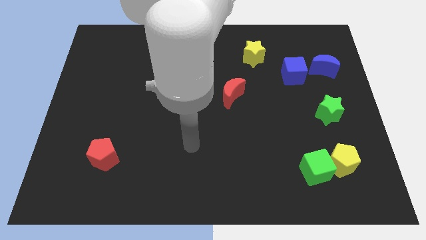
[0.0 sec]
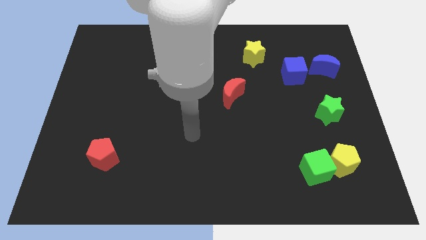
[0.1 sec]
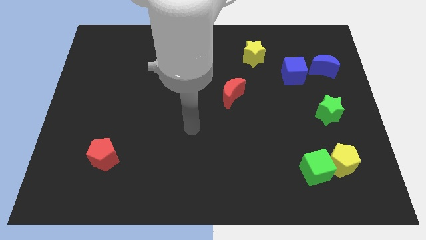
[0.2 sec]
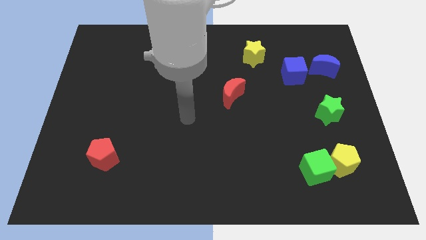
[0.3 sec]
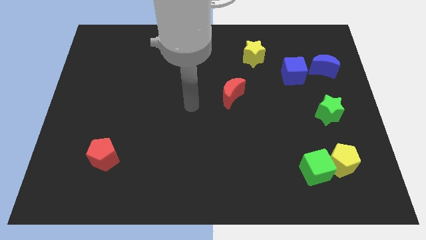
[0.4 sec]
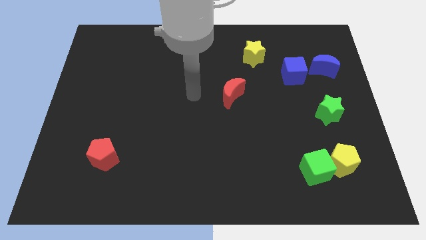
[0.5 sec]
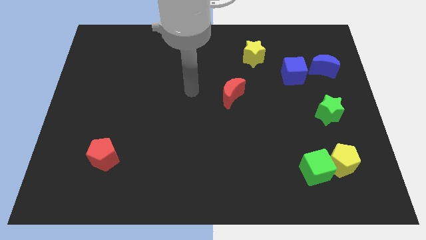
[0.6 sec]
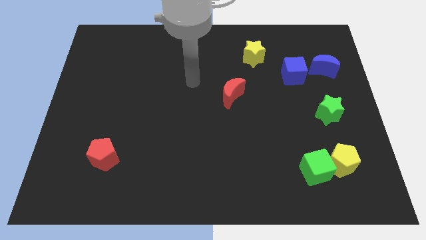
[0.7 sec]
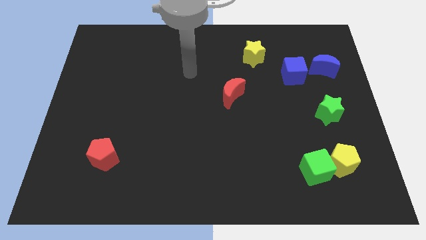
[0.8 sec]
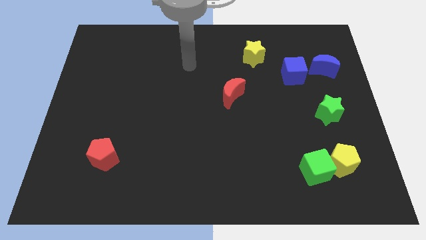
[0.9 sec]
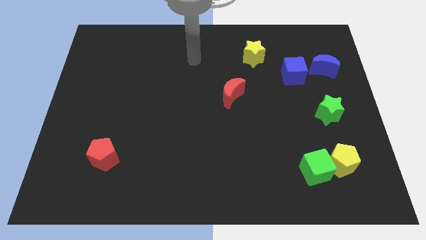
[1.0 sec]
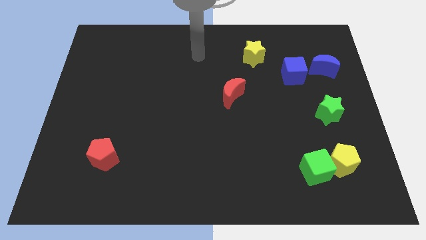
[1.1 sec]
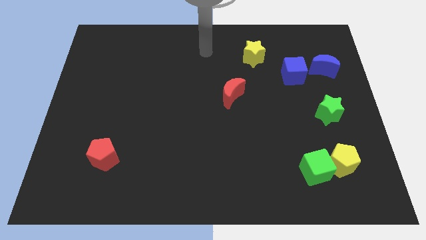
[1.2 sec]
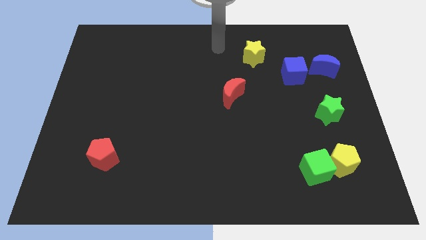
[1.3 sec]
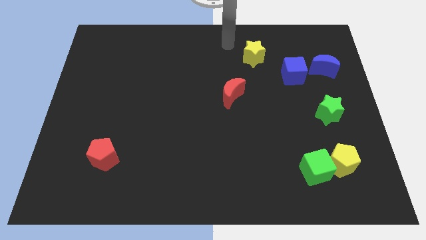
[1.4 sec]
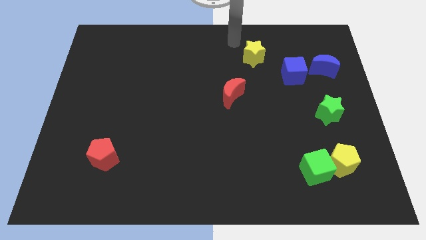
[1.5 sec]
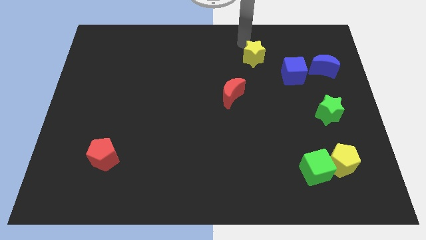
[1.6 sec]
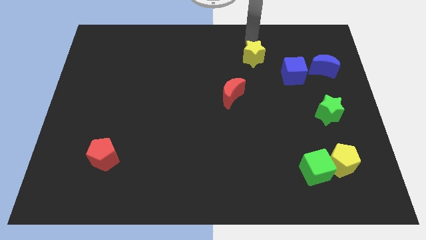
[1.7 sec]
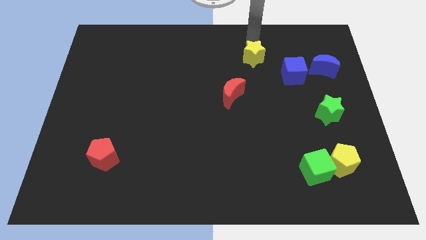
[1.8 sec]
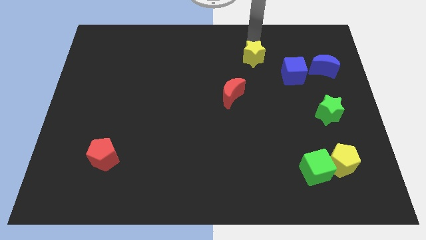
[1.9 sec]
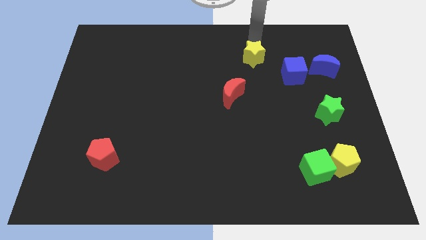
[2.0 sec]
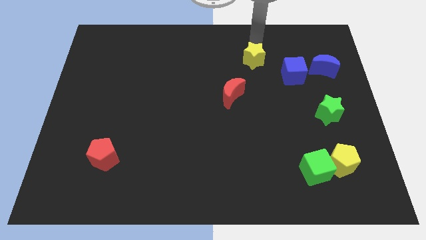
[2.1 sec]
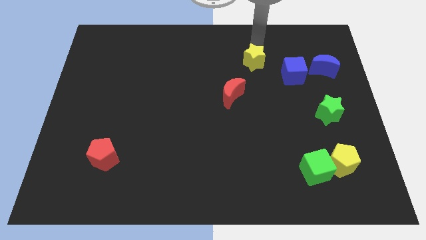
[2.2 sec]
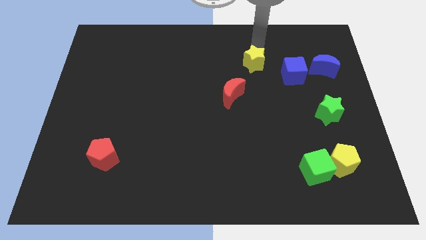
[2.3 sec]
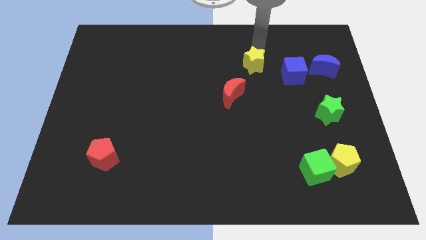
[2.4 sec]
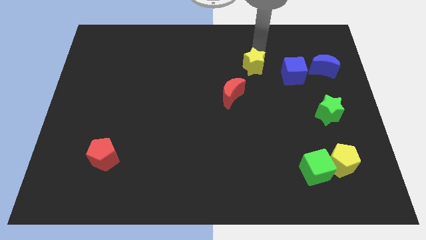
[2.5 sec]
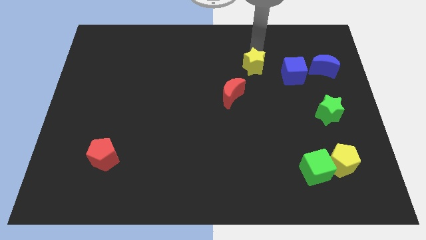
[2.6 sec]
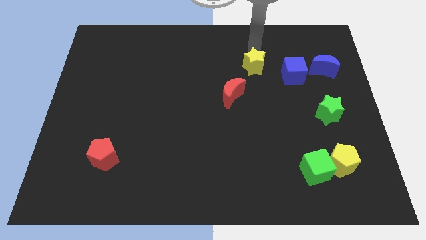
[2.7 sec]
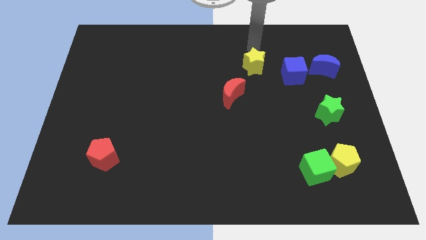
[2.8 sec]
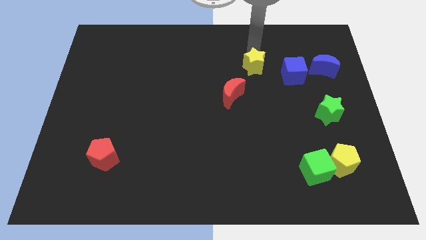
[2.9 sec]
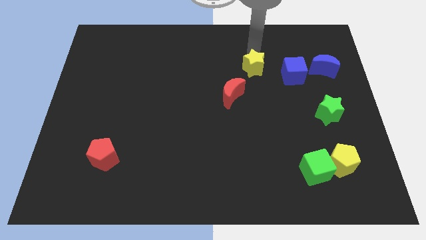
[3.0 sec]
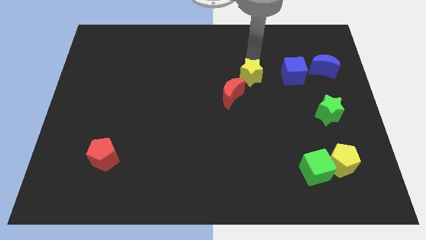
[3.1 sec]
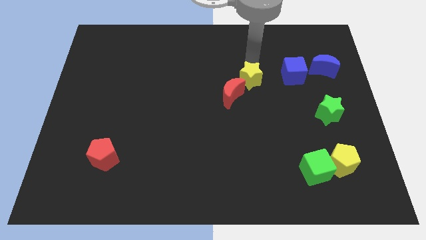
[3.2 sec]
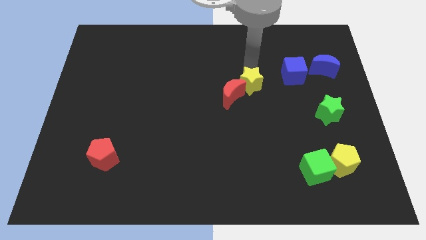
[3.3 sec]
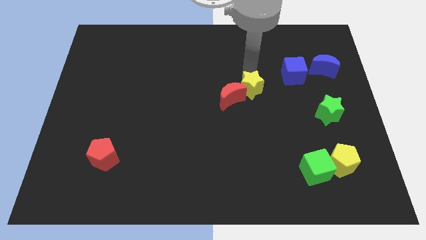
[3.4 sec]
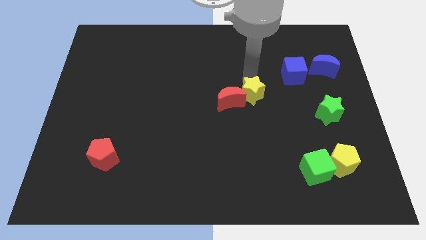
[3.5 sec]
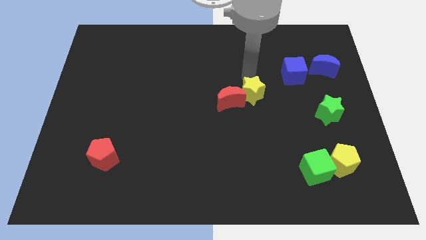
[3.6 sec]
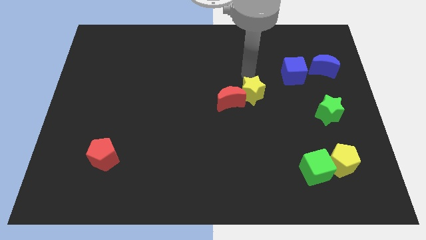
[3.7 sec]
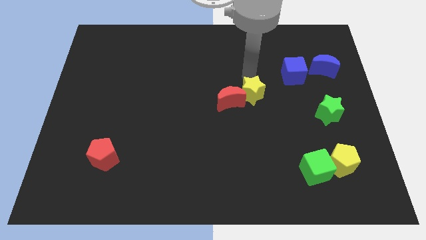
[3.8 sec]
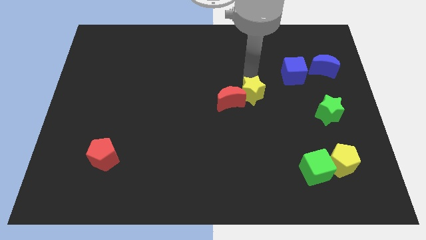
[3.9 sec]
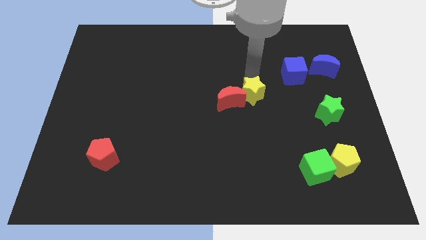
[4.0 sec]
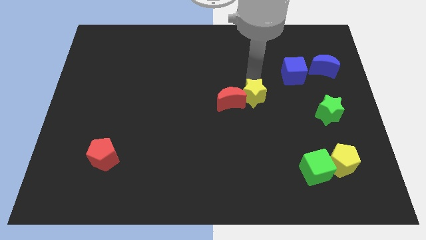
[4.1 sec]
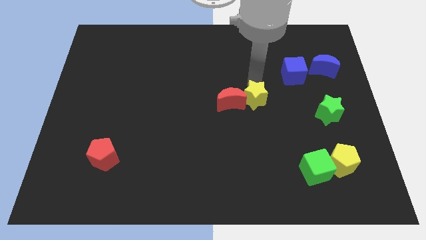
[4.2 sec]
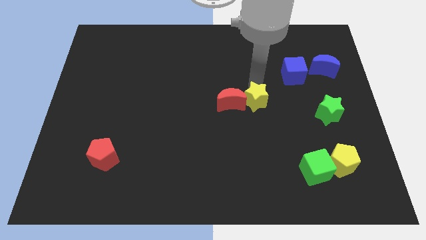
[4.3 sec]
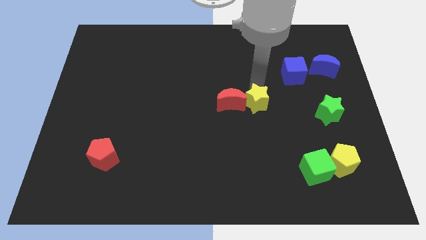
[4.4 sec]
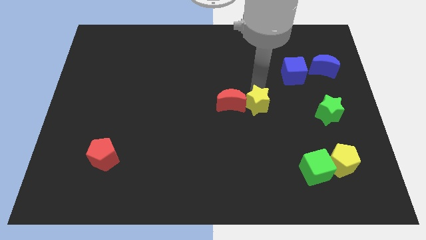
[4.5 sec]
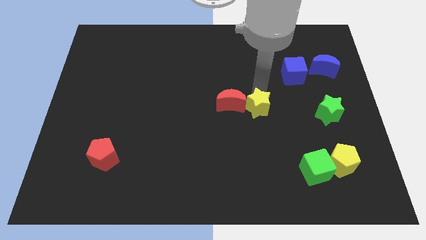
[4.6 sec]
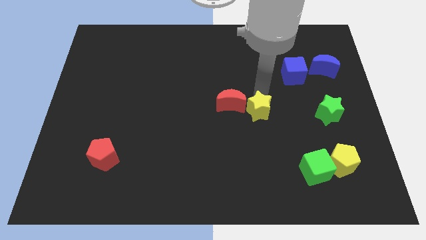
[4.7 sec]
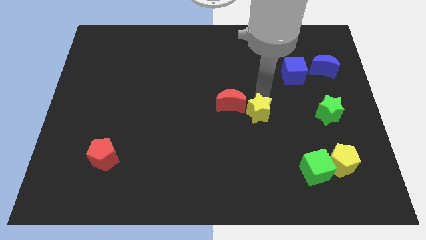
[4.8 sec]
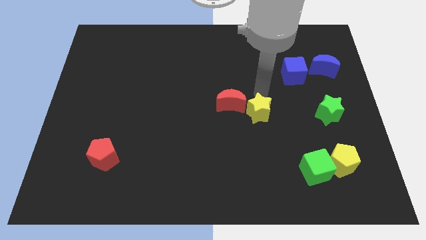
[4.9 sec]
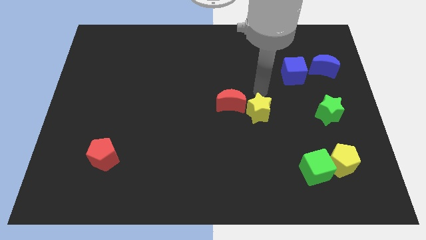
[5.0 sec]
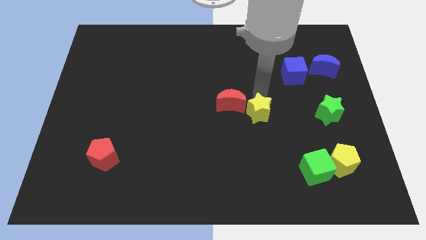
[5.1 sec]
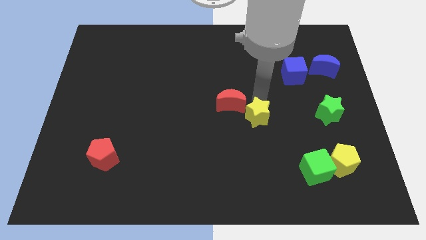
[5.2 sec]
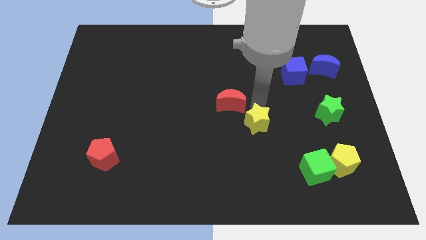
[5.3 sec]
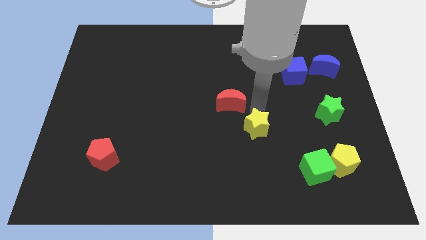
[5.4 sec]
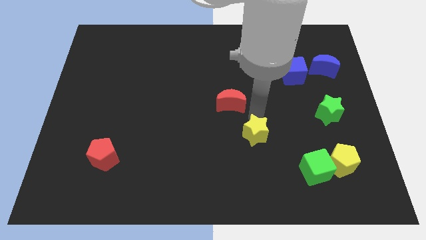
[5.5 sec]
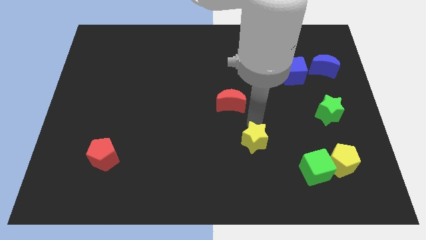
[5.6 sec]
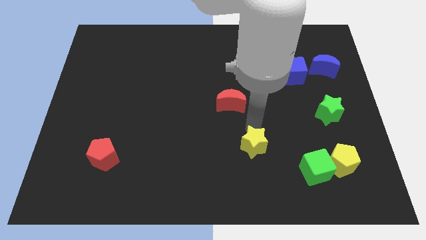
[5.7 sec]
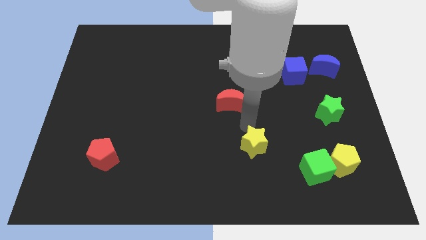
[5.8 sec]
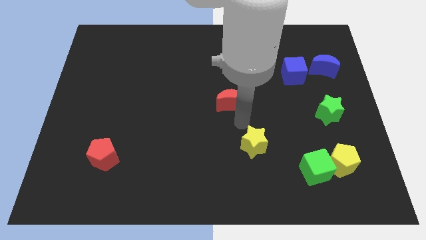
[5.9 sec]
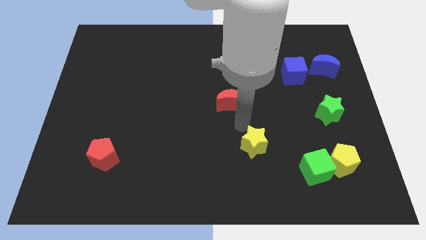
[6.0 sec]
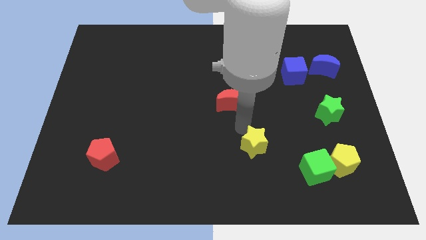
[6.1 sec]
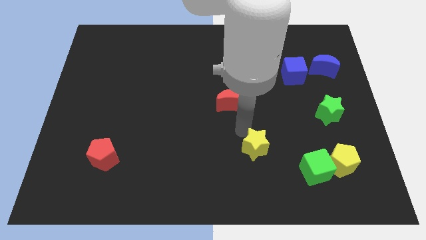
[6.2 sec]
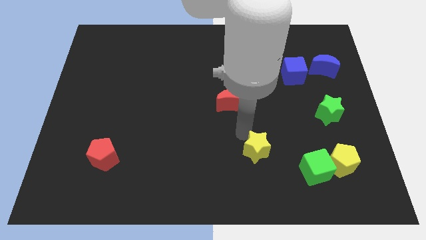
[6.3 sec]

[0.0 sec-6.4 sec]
slide the yellow star to the left side of the green cube

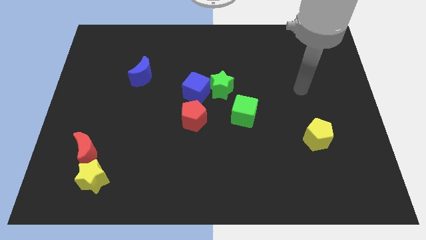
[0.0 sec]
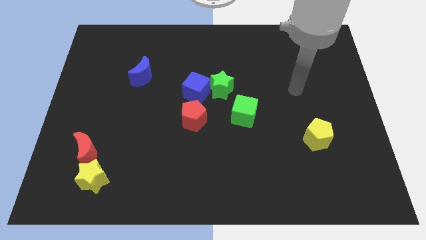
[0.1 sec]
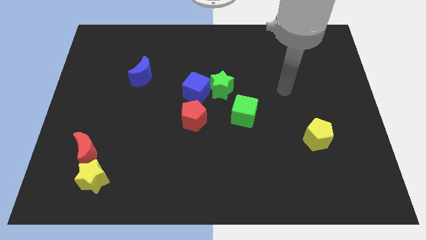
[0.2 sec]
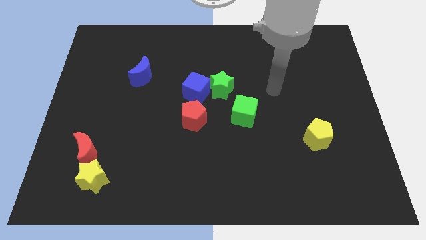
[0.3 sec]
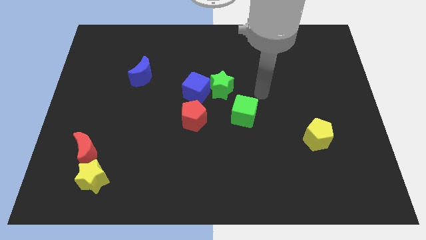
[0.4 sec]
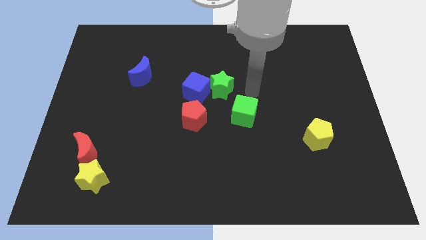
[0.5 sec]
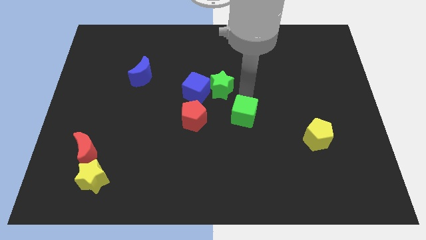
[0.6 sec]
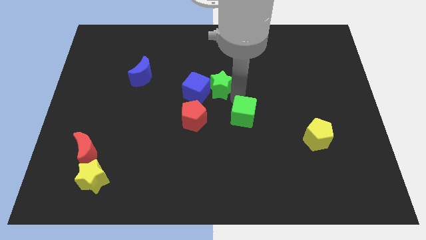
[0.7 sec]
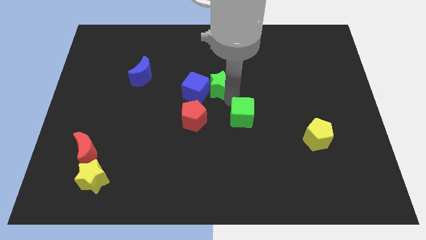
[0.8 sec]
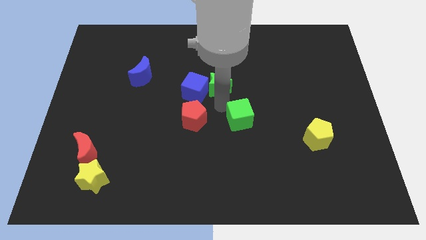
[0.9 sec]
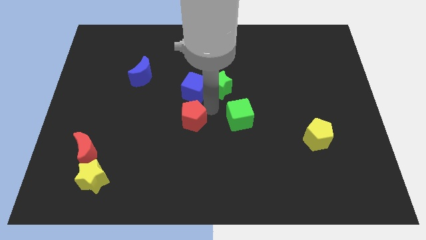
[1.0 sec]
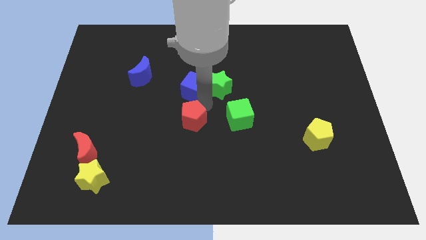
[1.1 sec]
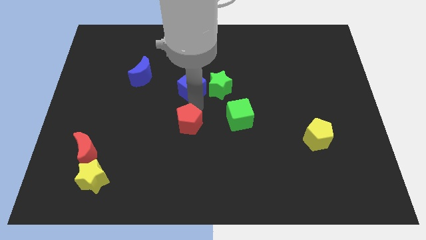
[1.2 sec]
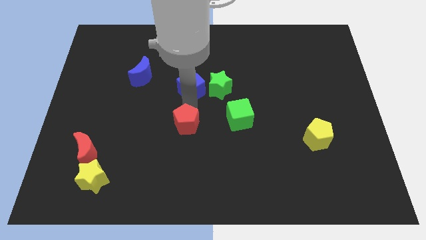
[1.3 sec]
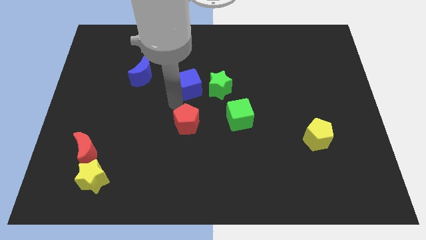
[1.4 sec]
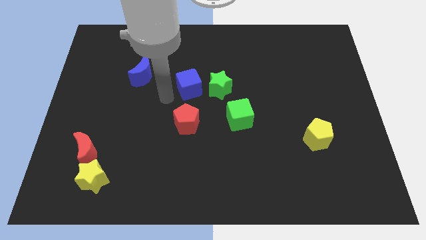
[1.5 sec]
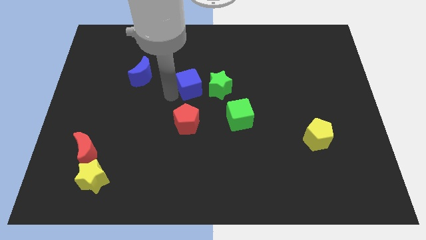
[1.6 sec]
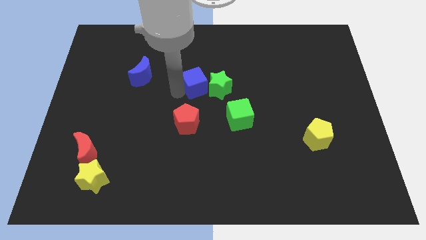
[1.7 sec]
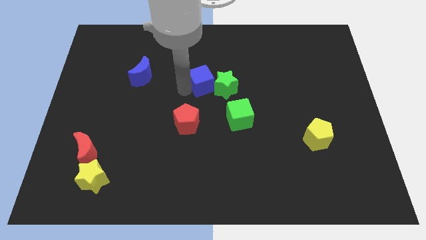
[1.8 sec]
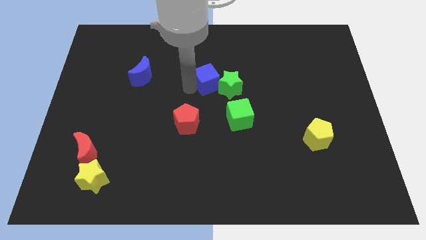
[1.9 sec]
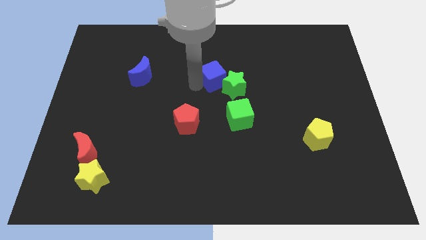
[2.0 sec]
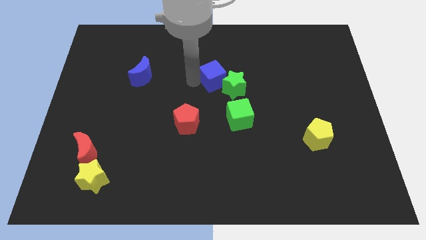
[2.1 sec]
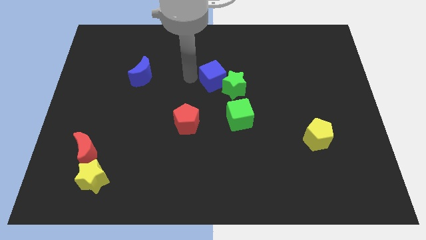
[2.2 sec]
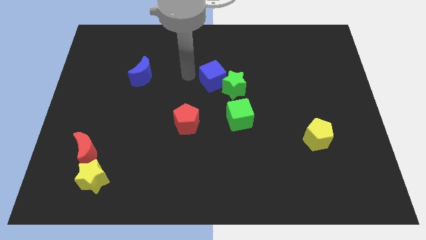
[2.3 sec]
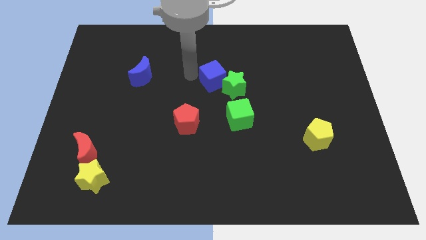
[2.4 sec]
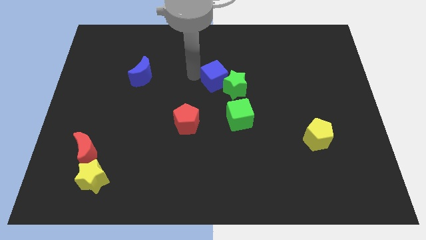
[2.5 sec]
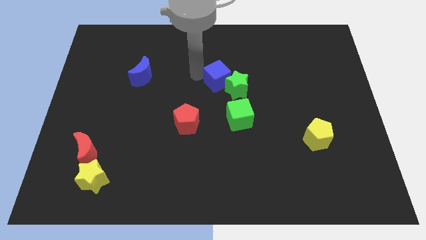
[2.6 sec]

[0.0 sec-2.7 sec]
move the blue cube to the top of the green cube
